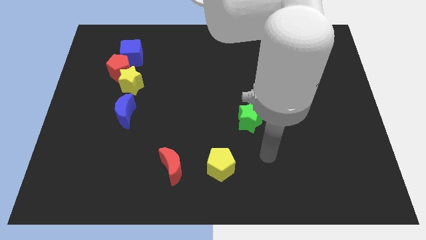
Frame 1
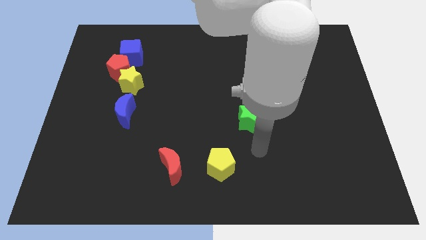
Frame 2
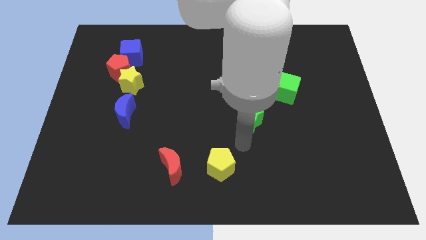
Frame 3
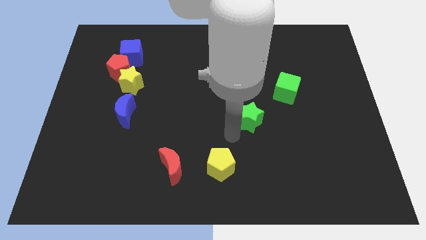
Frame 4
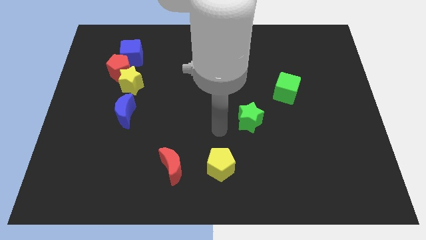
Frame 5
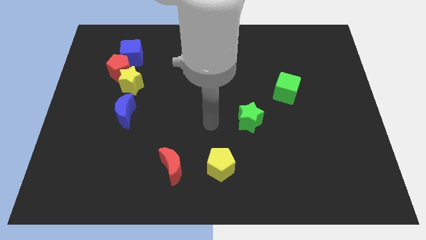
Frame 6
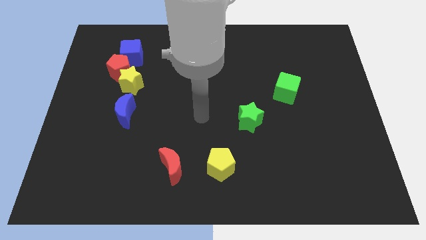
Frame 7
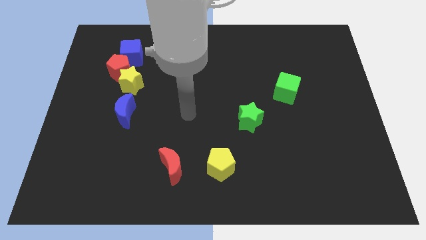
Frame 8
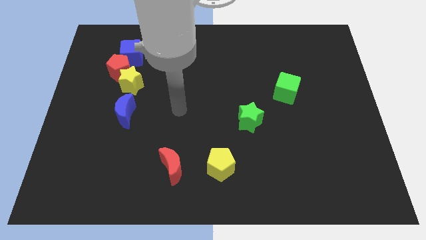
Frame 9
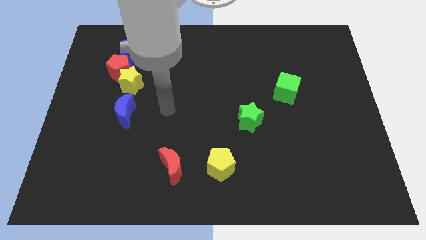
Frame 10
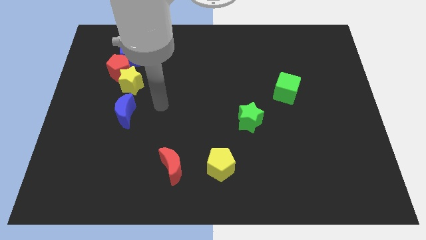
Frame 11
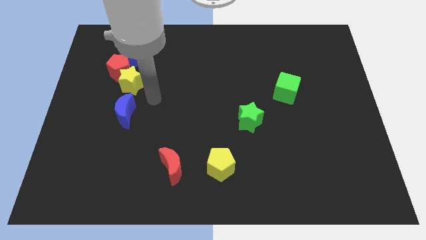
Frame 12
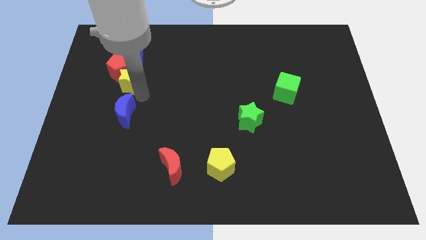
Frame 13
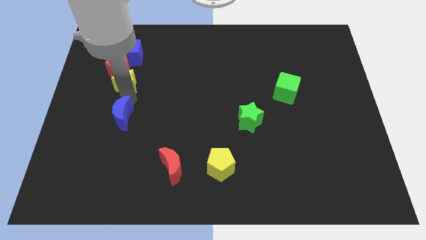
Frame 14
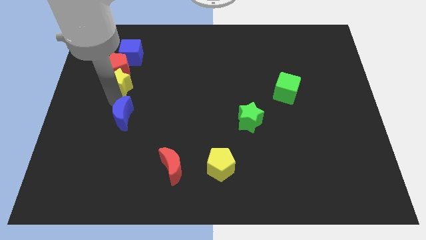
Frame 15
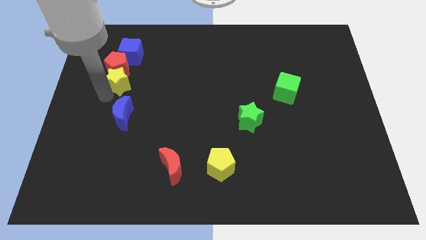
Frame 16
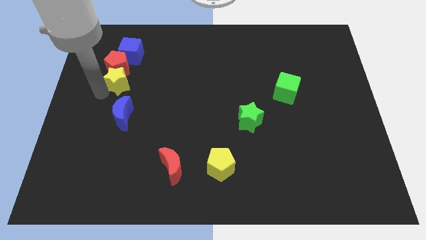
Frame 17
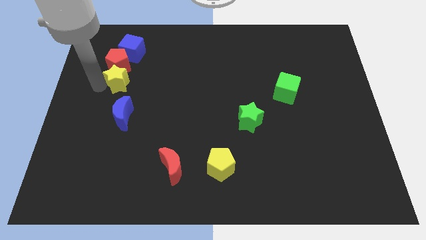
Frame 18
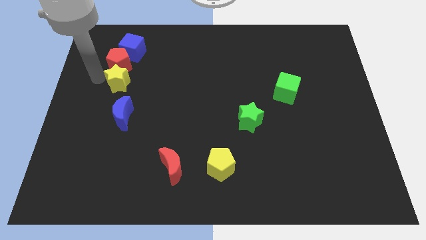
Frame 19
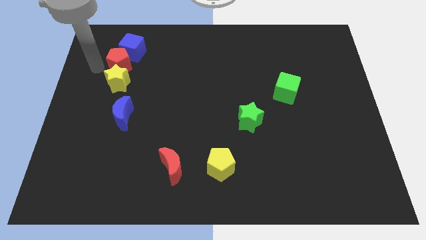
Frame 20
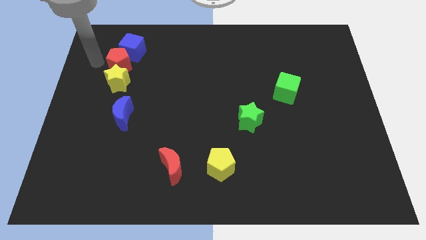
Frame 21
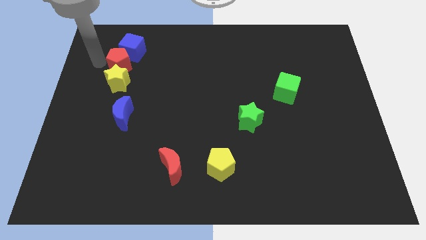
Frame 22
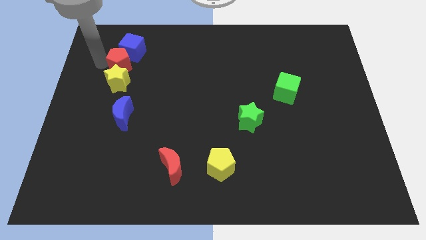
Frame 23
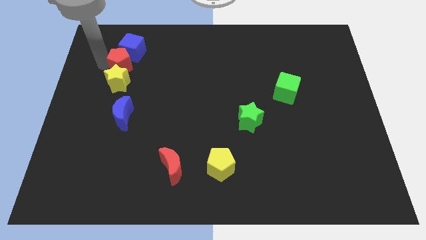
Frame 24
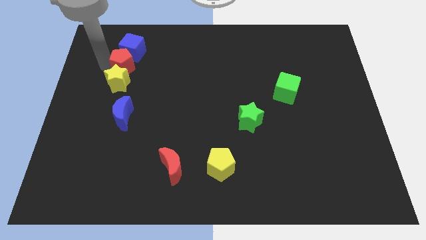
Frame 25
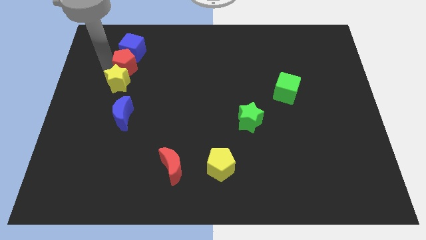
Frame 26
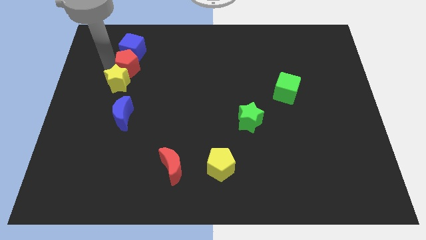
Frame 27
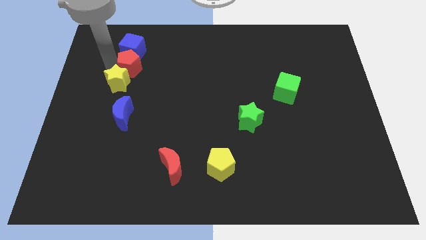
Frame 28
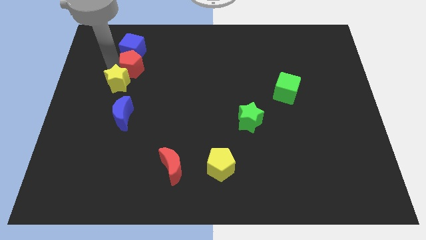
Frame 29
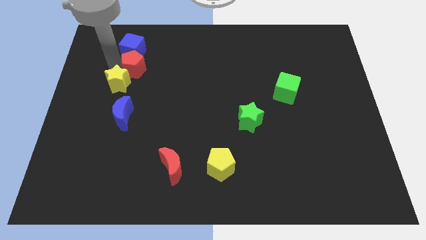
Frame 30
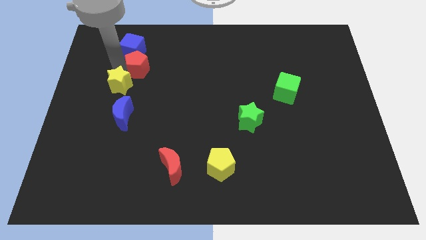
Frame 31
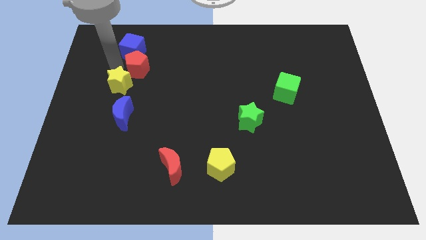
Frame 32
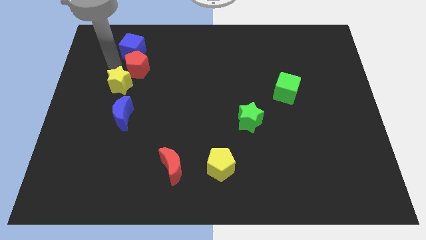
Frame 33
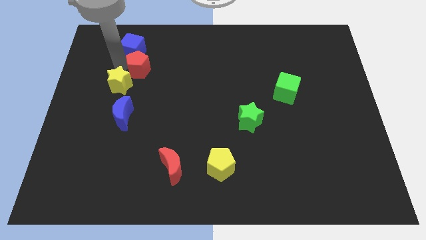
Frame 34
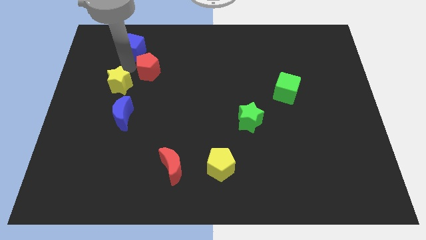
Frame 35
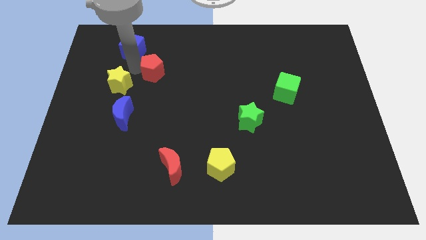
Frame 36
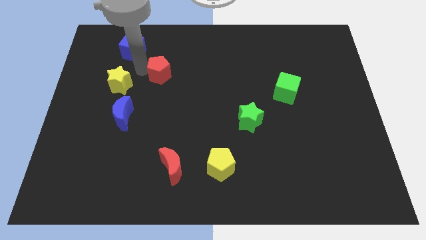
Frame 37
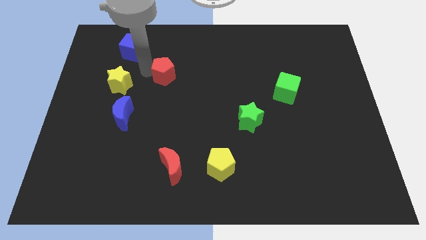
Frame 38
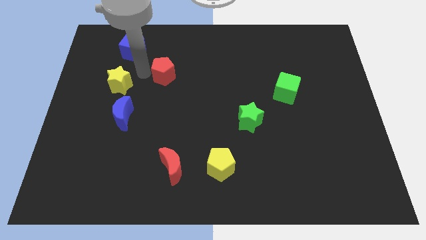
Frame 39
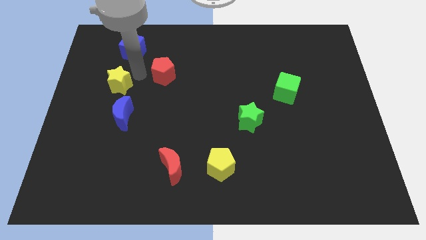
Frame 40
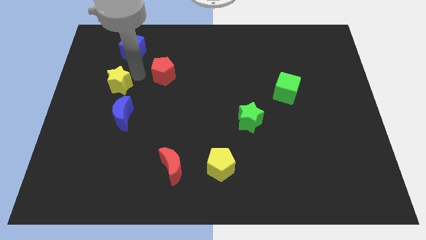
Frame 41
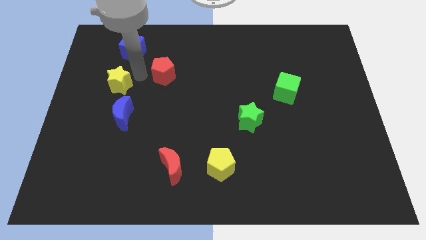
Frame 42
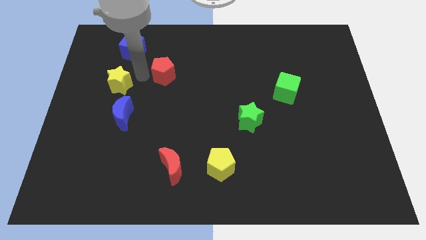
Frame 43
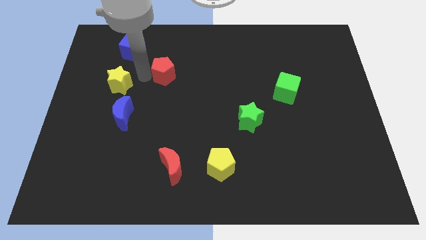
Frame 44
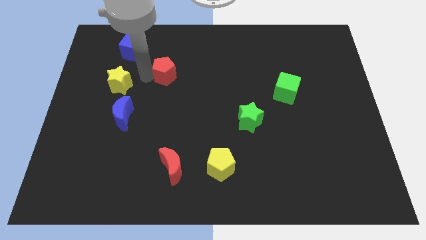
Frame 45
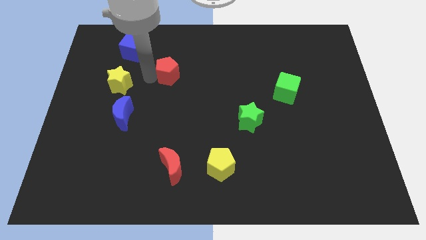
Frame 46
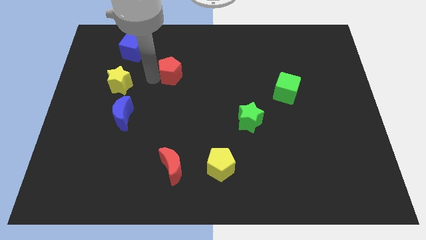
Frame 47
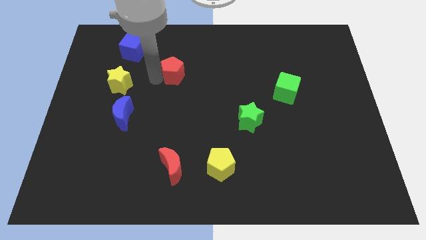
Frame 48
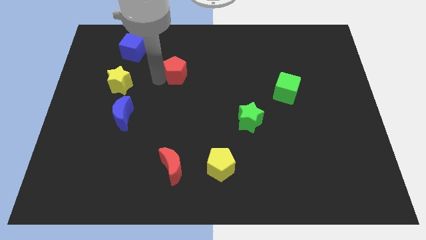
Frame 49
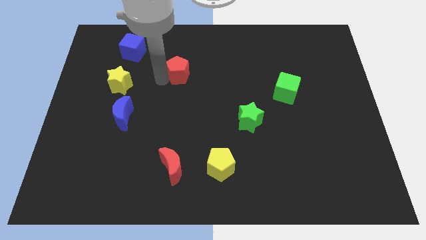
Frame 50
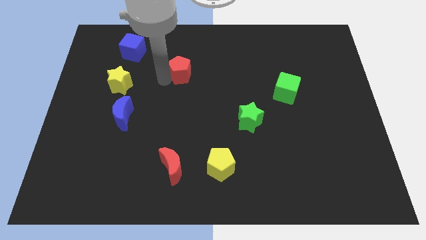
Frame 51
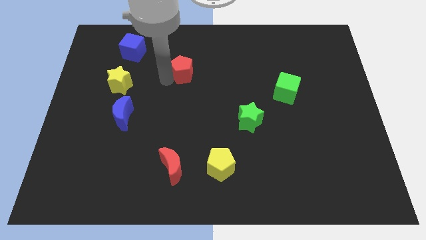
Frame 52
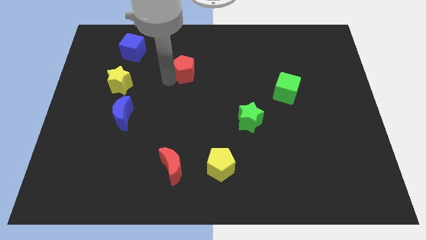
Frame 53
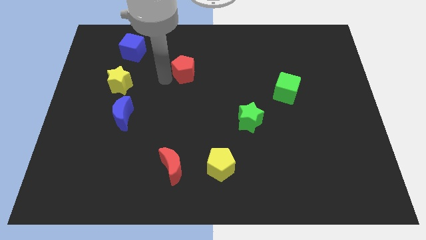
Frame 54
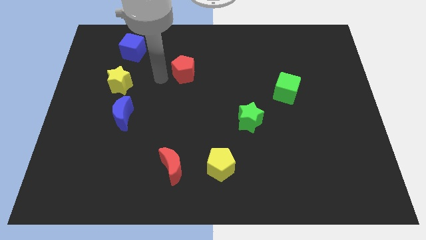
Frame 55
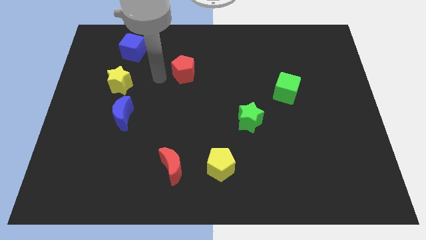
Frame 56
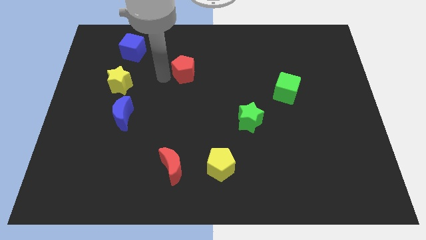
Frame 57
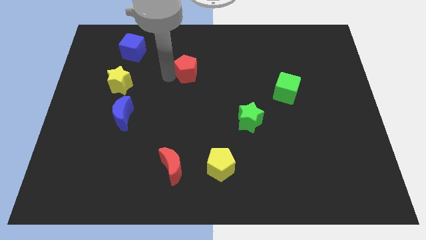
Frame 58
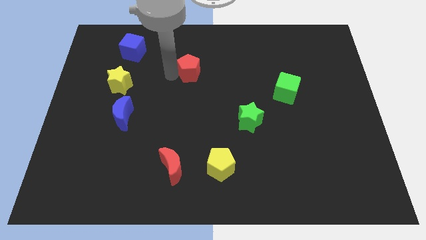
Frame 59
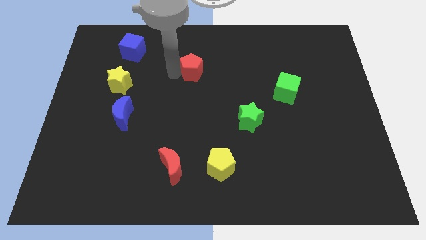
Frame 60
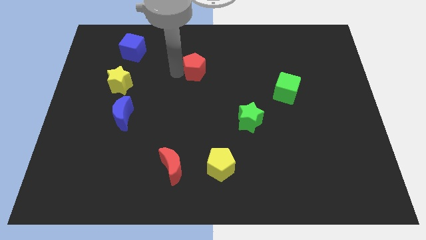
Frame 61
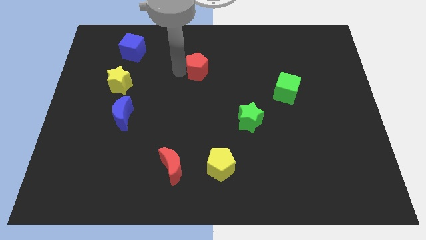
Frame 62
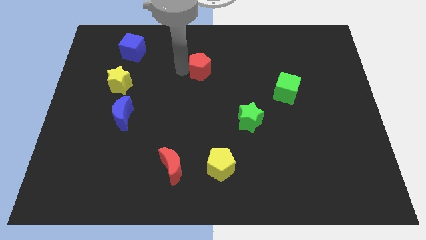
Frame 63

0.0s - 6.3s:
push the red pentagon to the right

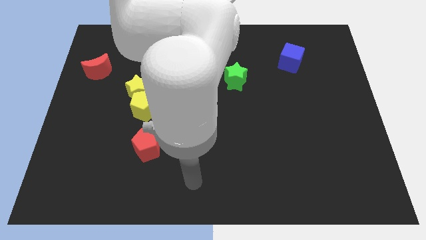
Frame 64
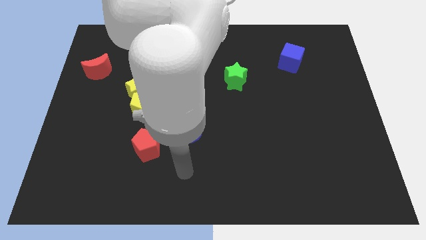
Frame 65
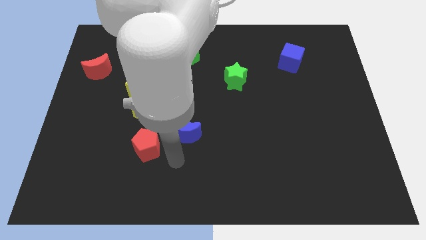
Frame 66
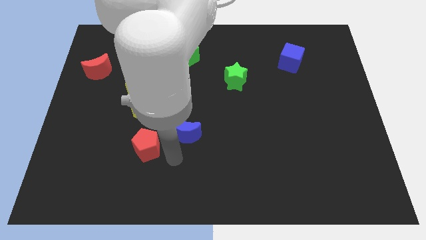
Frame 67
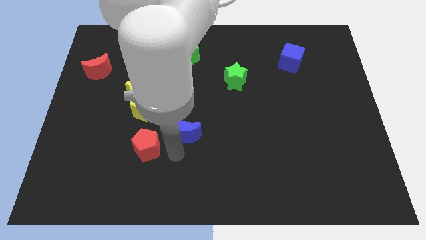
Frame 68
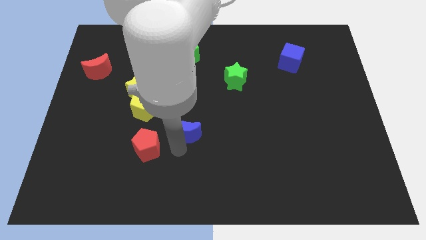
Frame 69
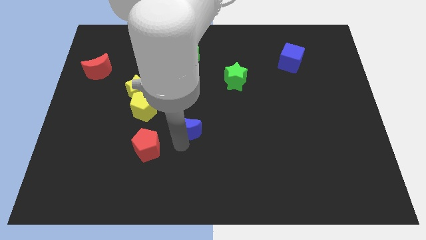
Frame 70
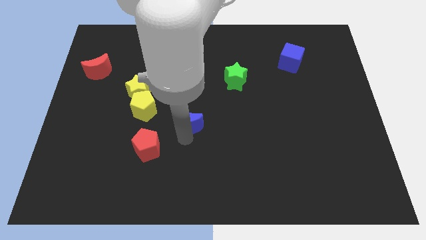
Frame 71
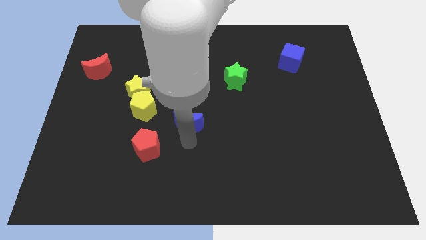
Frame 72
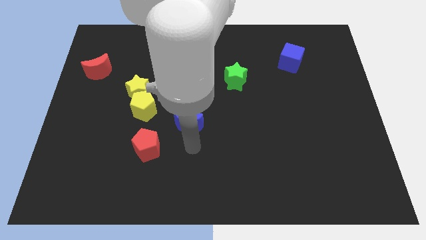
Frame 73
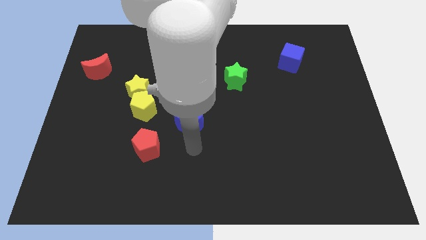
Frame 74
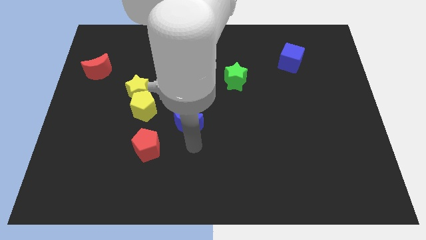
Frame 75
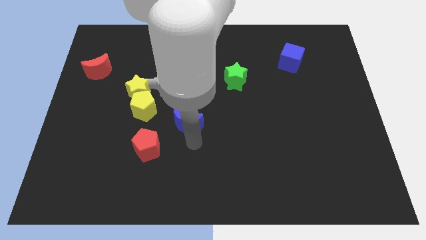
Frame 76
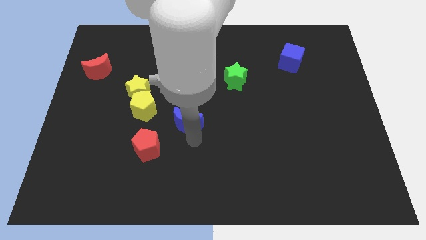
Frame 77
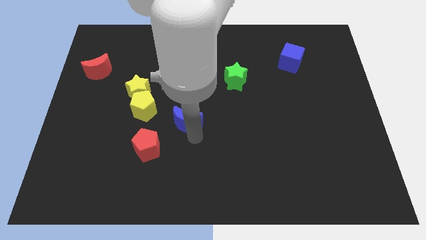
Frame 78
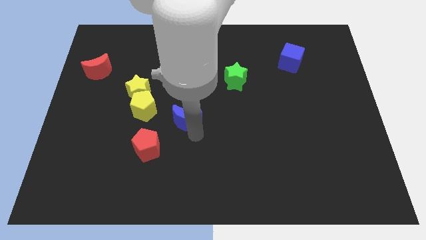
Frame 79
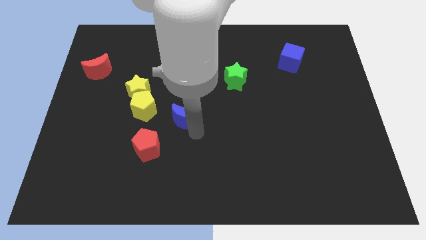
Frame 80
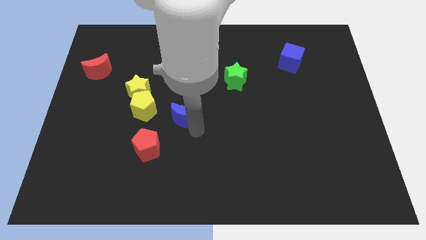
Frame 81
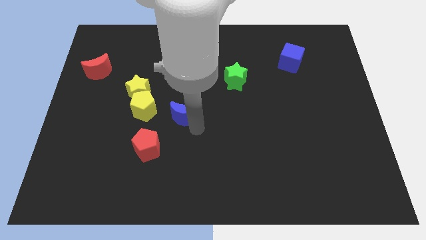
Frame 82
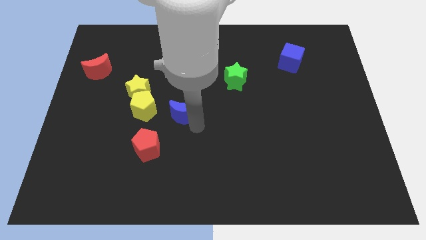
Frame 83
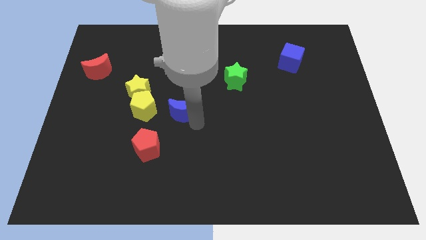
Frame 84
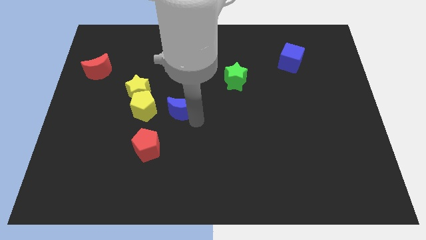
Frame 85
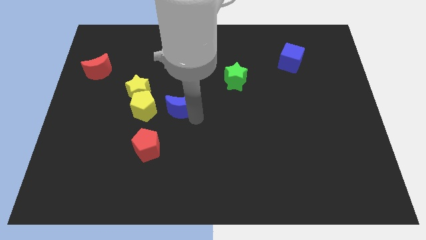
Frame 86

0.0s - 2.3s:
move the blue moon somewhat upwards
